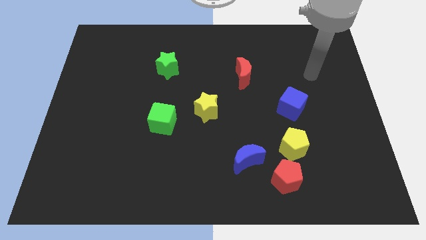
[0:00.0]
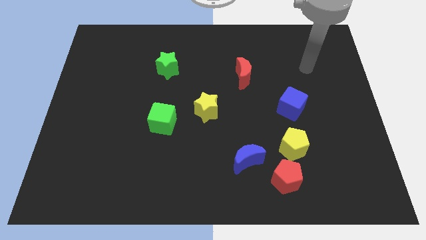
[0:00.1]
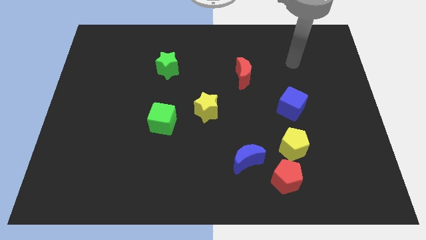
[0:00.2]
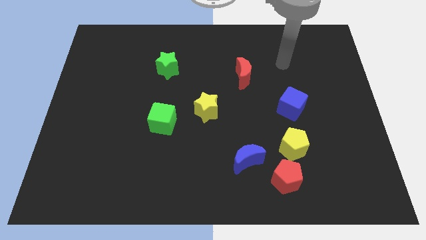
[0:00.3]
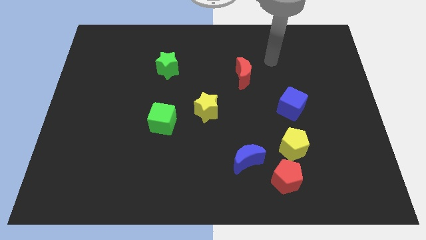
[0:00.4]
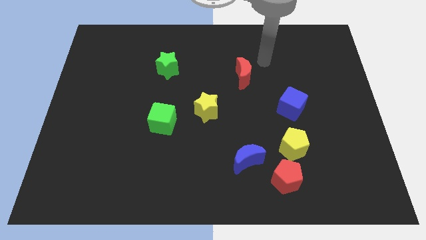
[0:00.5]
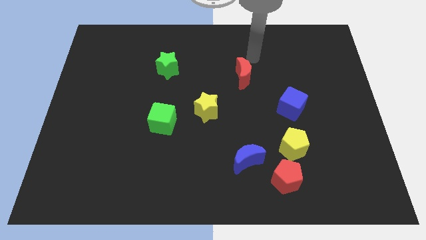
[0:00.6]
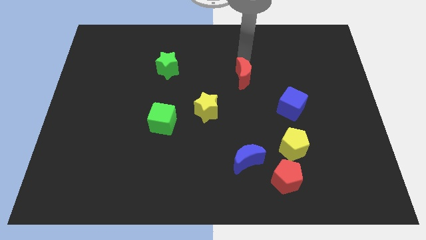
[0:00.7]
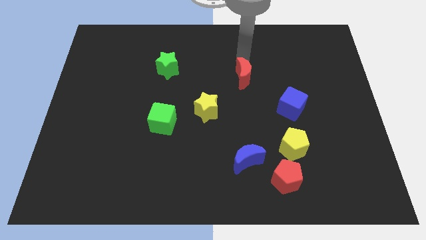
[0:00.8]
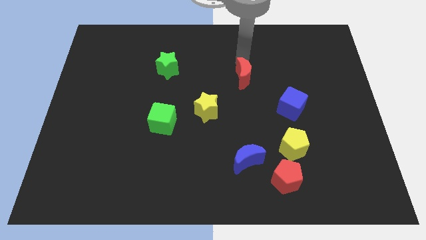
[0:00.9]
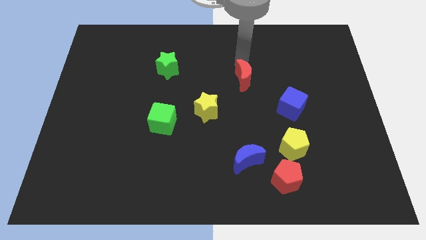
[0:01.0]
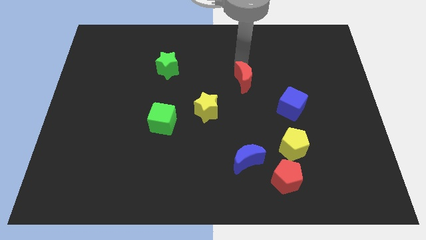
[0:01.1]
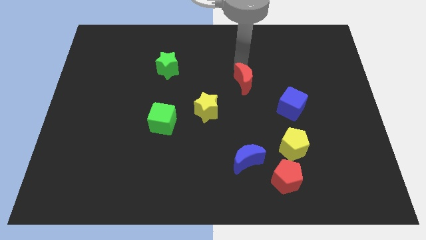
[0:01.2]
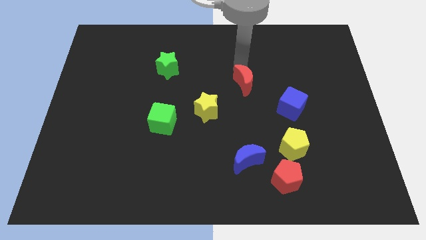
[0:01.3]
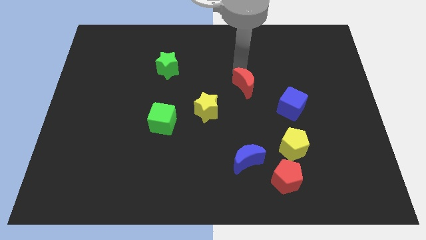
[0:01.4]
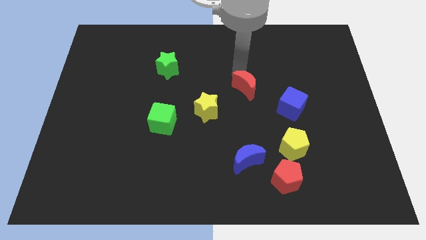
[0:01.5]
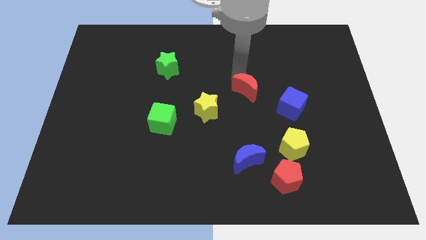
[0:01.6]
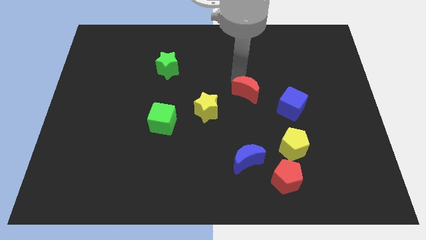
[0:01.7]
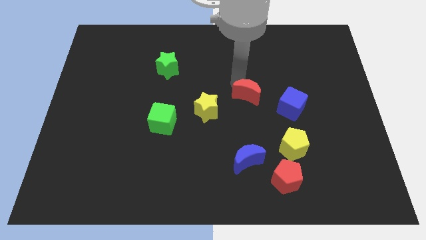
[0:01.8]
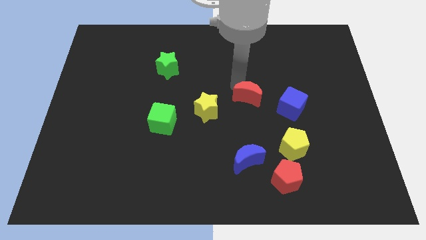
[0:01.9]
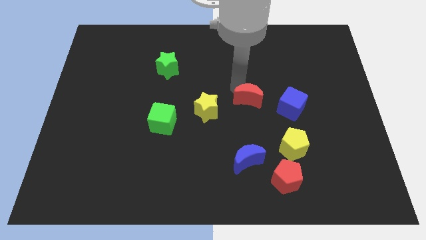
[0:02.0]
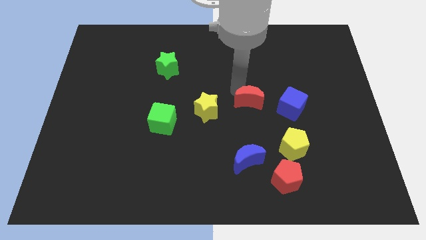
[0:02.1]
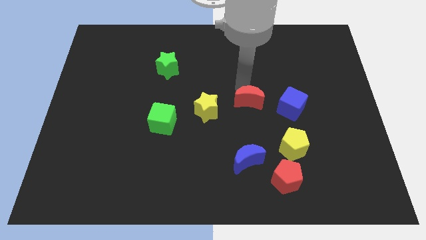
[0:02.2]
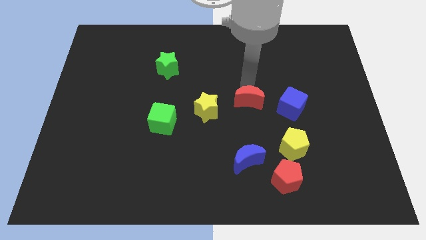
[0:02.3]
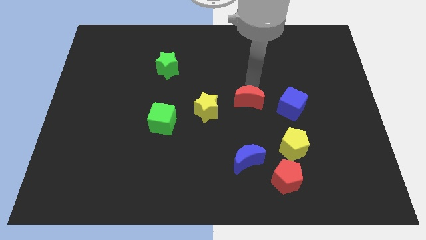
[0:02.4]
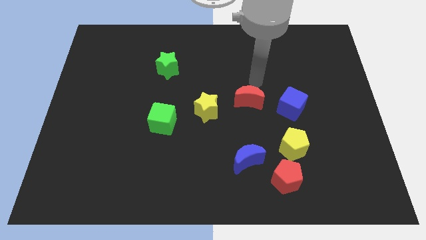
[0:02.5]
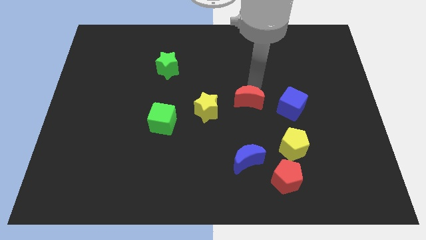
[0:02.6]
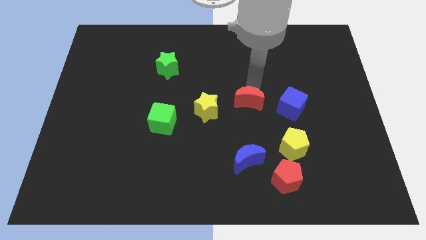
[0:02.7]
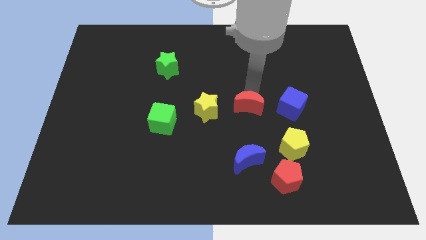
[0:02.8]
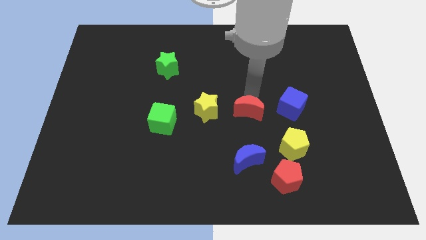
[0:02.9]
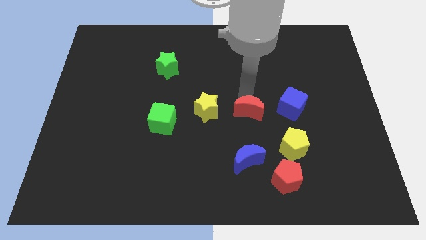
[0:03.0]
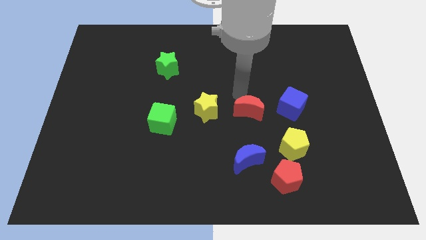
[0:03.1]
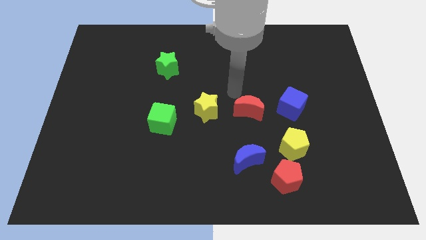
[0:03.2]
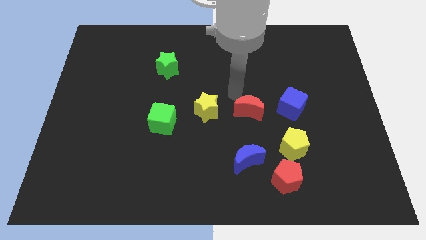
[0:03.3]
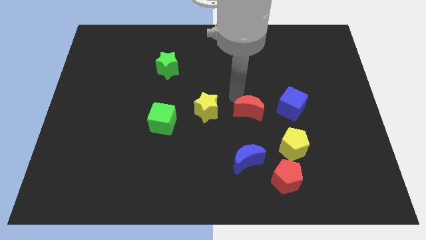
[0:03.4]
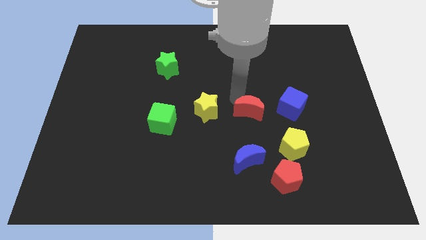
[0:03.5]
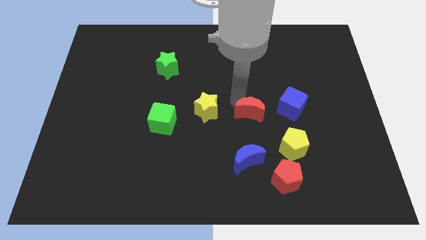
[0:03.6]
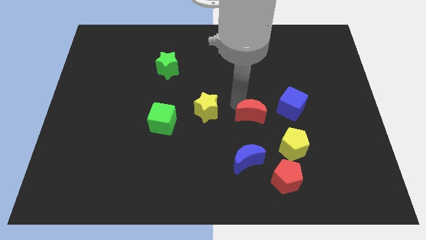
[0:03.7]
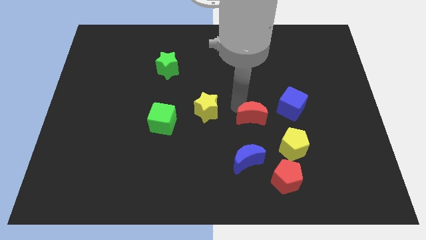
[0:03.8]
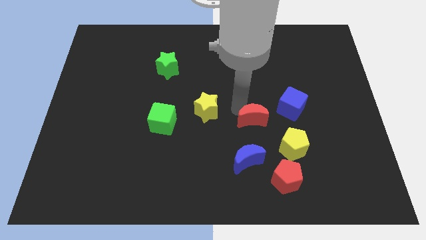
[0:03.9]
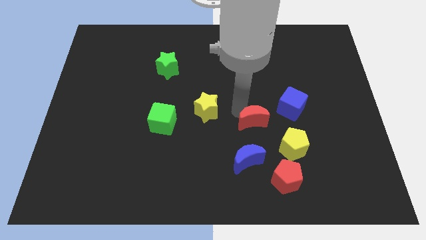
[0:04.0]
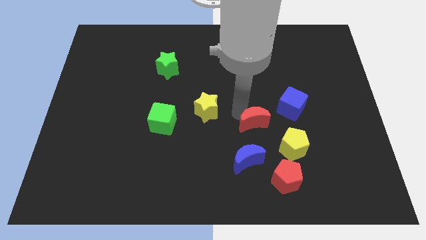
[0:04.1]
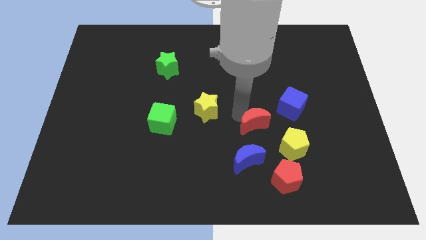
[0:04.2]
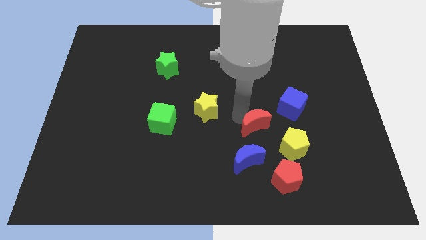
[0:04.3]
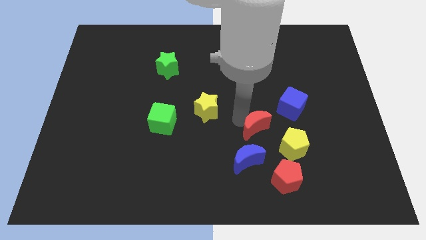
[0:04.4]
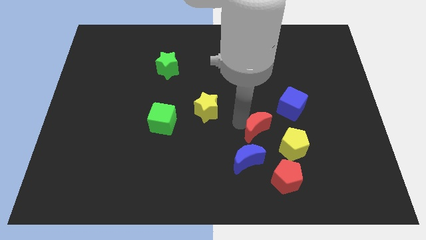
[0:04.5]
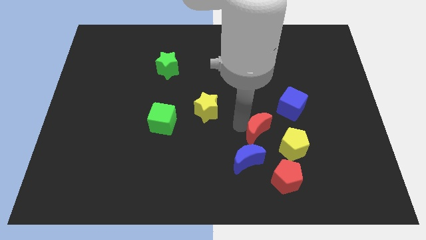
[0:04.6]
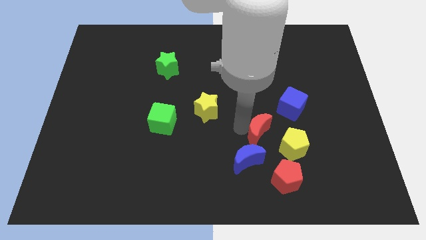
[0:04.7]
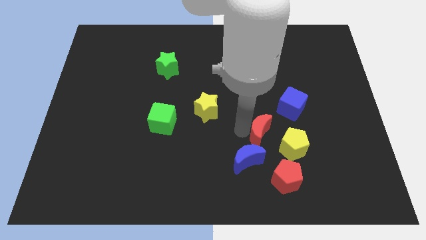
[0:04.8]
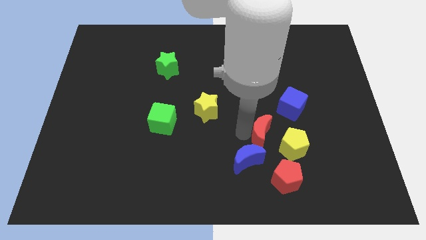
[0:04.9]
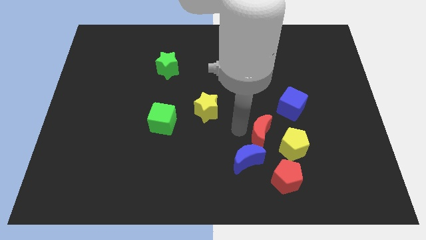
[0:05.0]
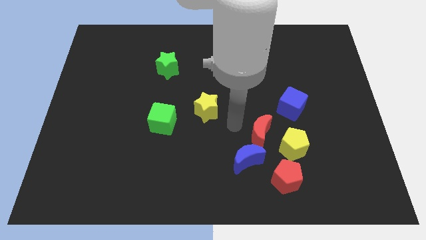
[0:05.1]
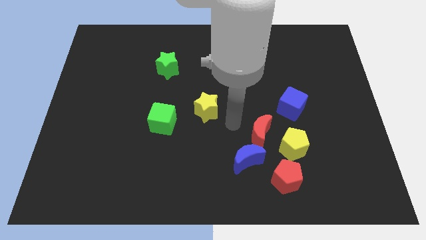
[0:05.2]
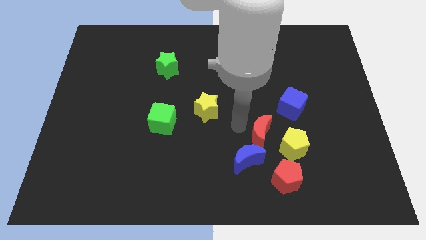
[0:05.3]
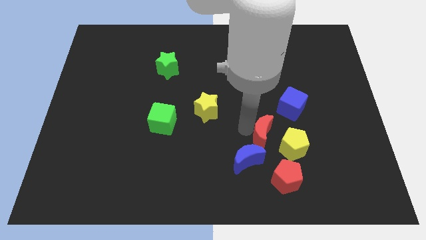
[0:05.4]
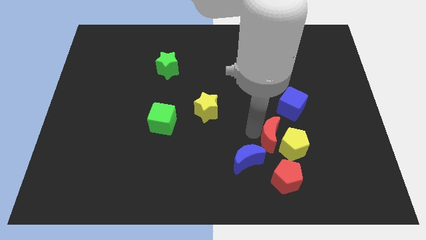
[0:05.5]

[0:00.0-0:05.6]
put the red moon towards the yellow pentagon
